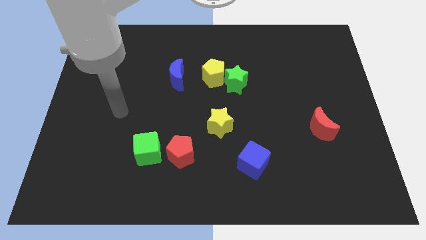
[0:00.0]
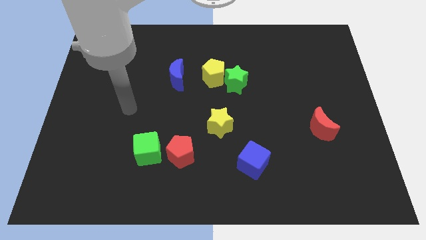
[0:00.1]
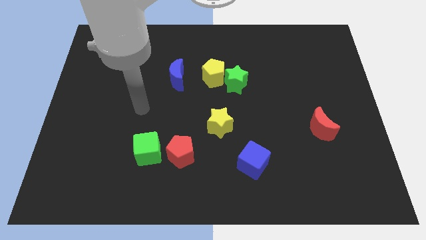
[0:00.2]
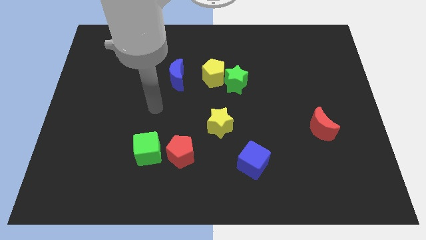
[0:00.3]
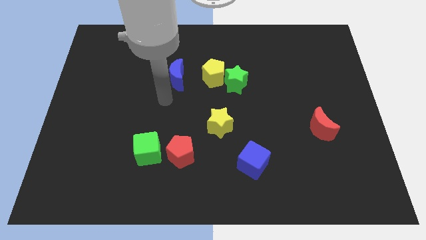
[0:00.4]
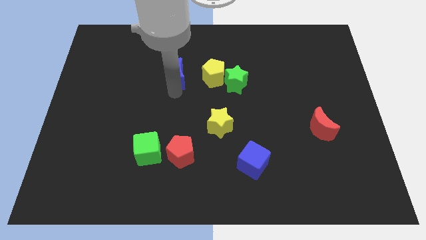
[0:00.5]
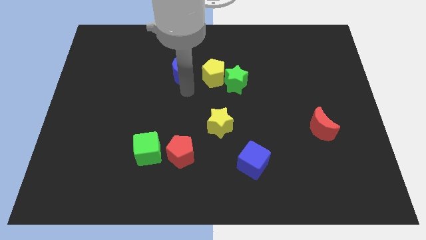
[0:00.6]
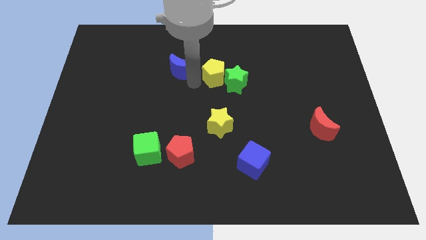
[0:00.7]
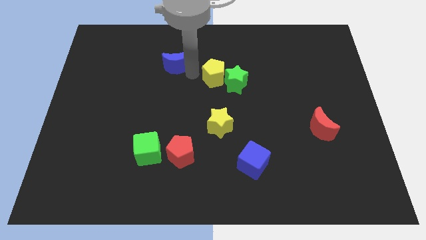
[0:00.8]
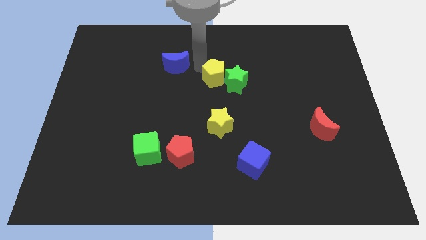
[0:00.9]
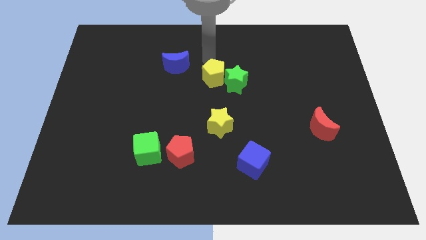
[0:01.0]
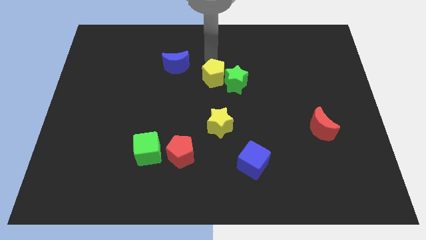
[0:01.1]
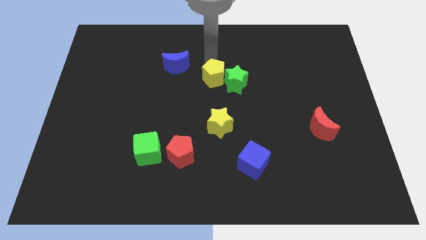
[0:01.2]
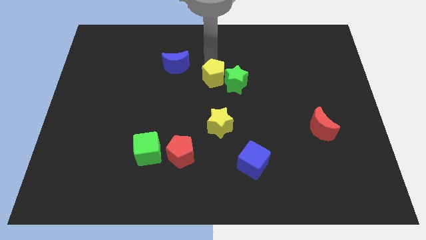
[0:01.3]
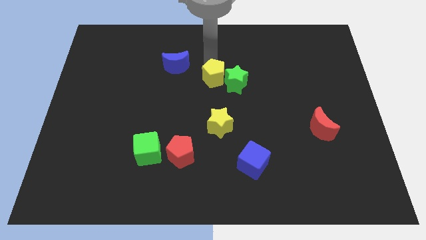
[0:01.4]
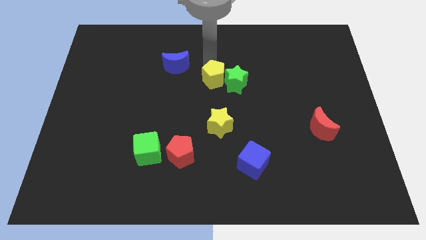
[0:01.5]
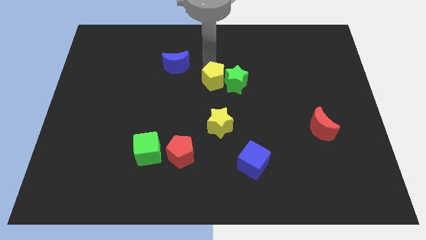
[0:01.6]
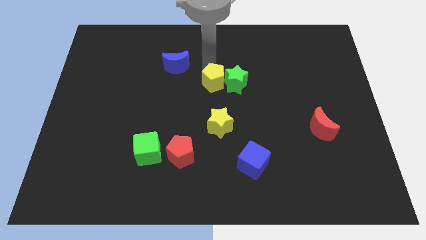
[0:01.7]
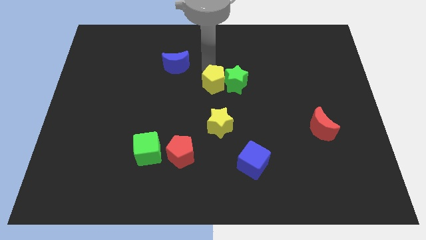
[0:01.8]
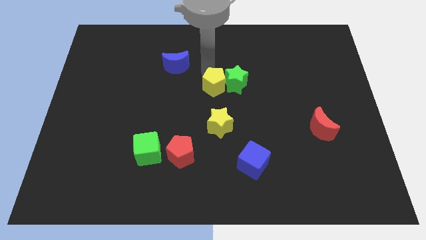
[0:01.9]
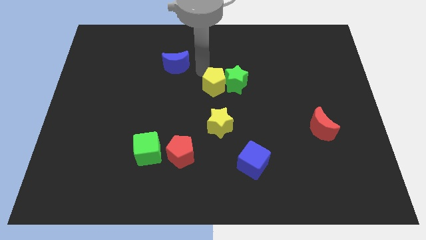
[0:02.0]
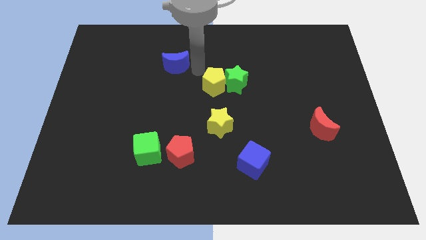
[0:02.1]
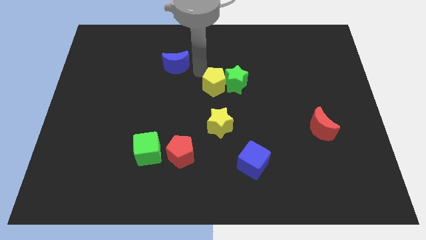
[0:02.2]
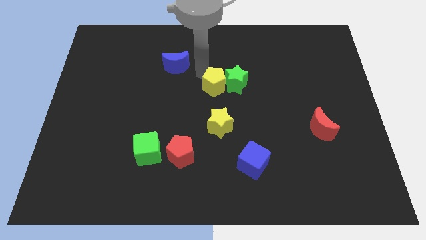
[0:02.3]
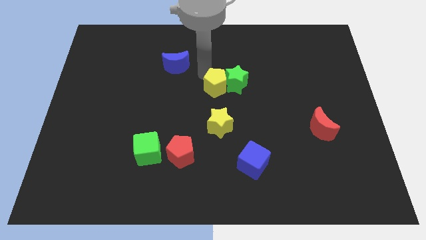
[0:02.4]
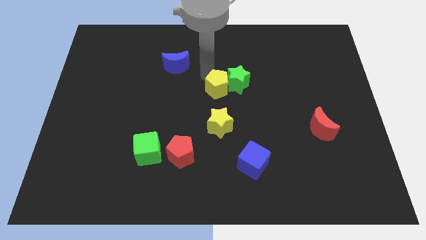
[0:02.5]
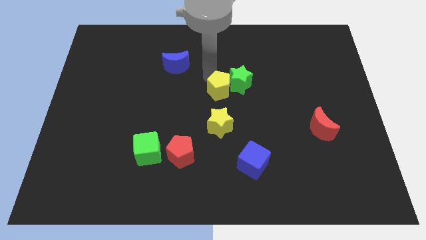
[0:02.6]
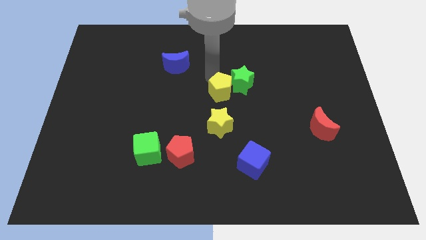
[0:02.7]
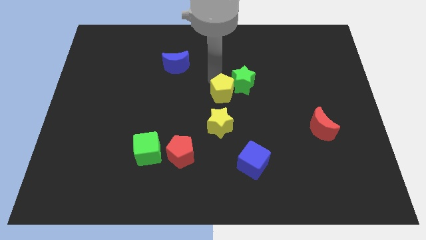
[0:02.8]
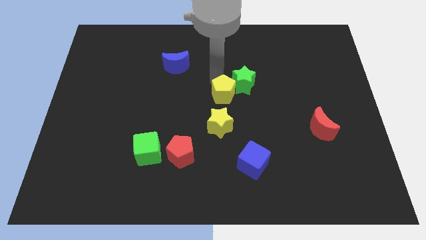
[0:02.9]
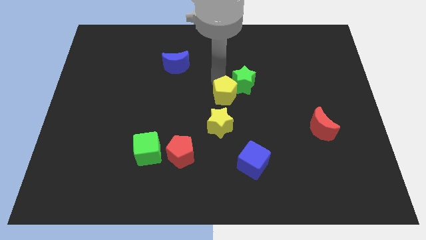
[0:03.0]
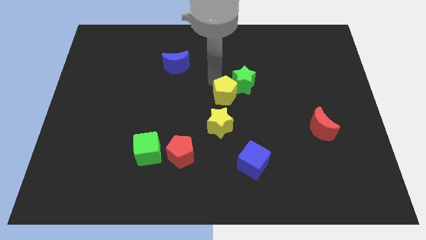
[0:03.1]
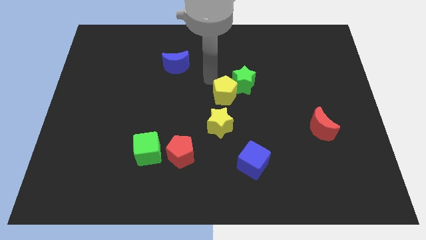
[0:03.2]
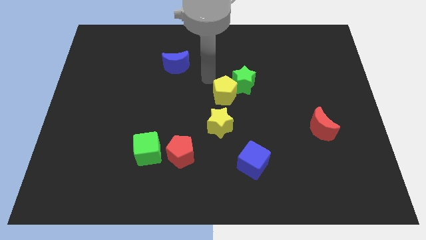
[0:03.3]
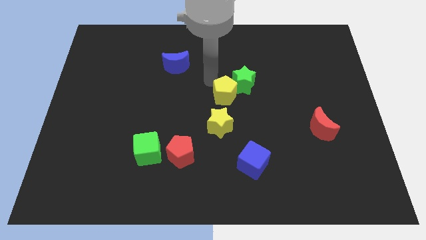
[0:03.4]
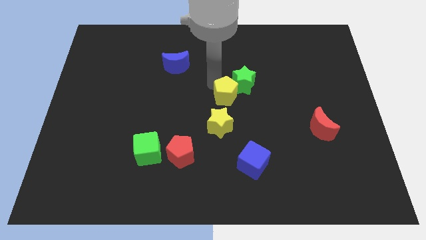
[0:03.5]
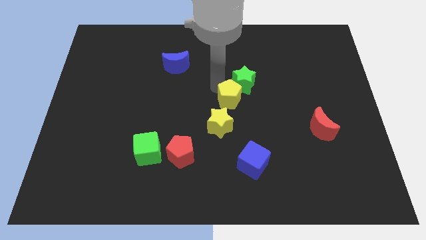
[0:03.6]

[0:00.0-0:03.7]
push the yellow pentagon downwards and right diagonally a little bit

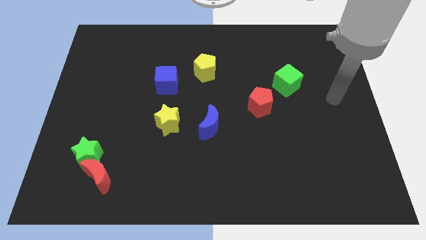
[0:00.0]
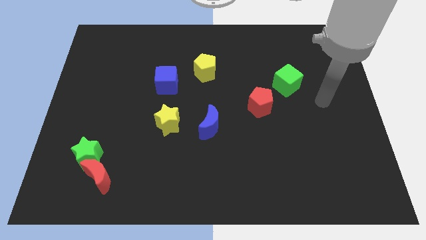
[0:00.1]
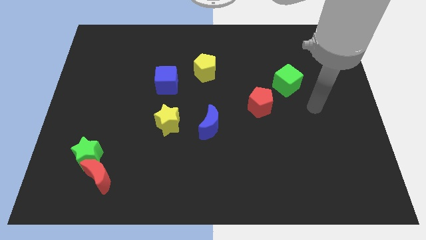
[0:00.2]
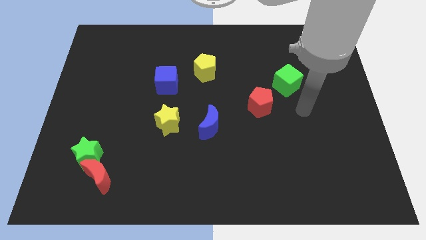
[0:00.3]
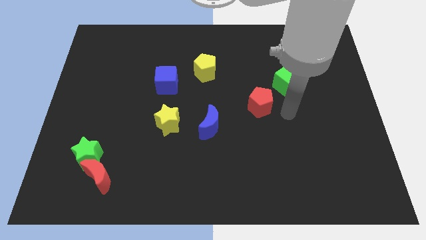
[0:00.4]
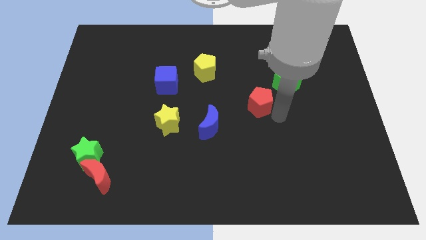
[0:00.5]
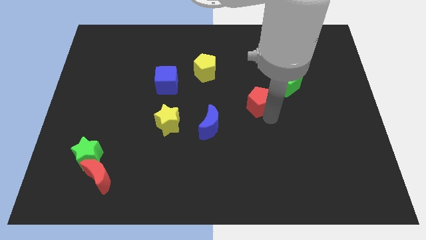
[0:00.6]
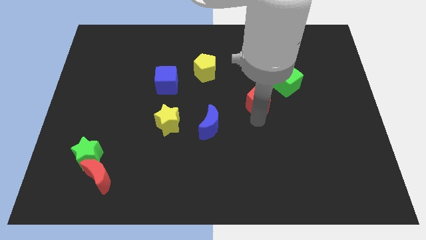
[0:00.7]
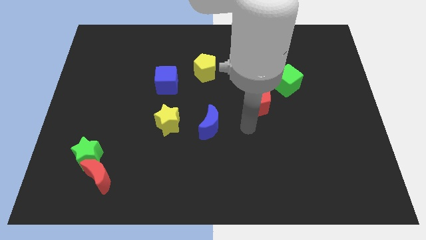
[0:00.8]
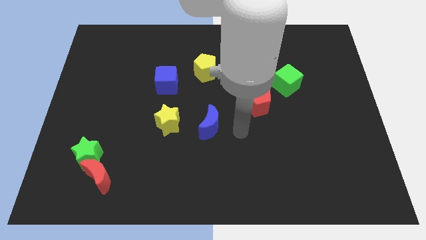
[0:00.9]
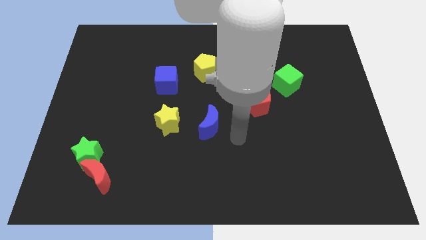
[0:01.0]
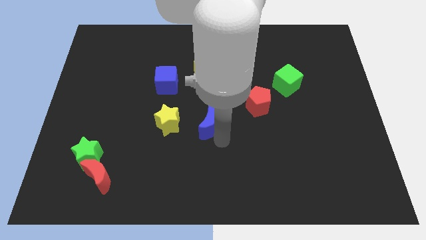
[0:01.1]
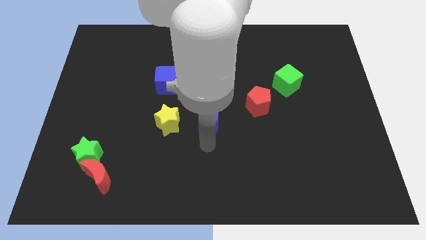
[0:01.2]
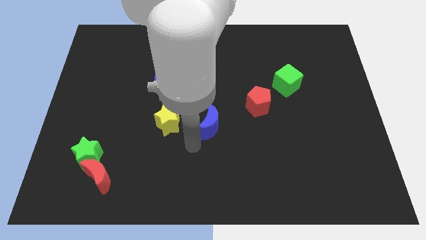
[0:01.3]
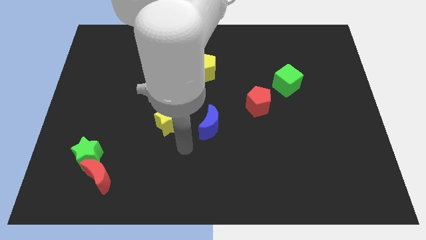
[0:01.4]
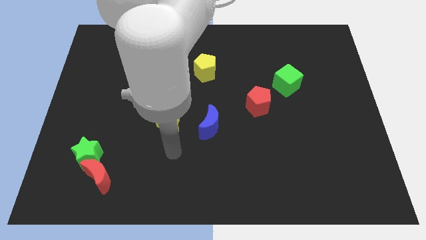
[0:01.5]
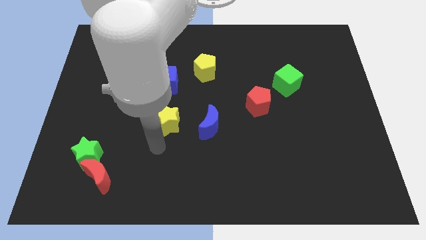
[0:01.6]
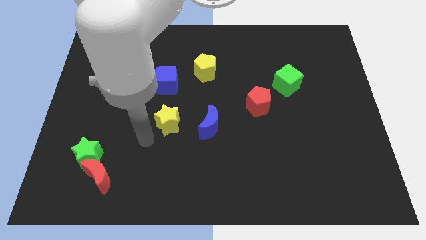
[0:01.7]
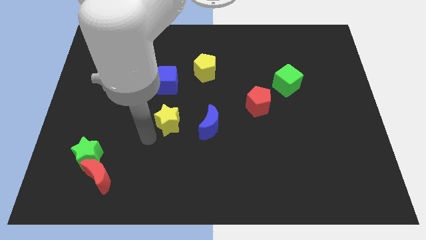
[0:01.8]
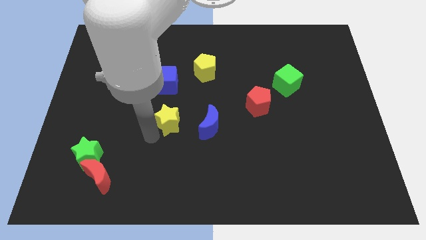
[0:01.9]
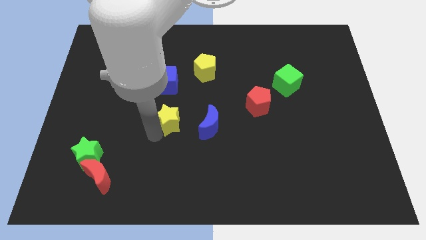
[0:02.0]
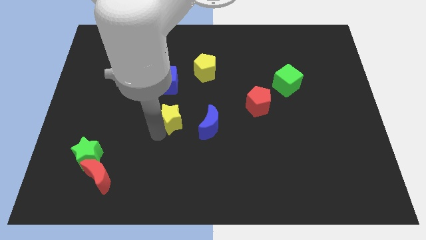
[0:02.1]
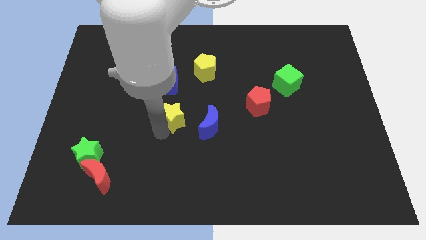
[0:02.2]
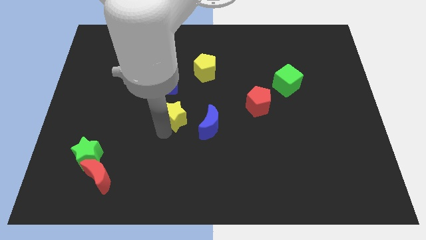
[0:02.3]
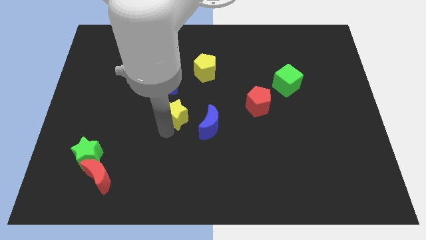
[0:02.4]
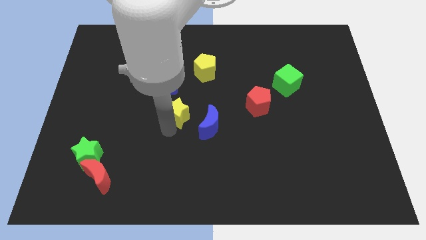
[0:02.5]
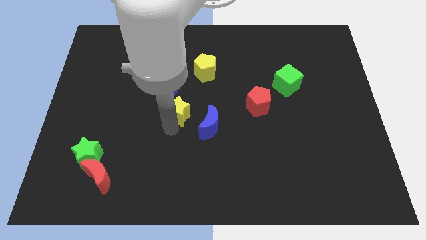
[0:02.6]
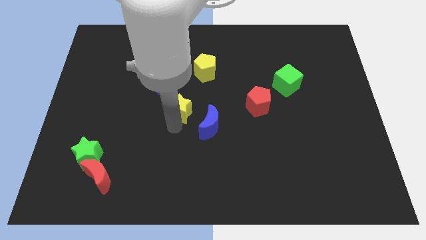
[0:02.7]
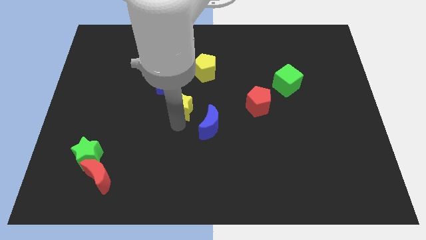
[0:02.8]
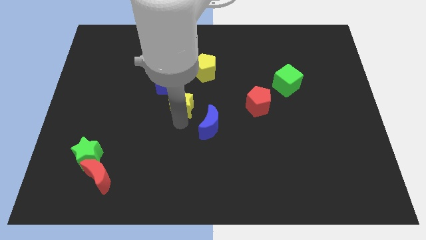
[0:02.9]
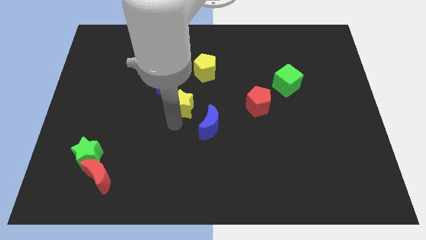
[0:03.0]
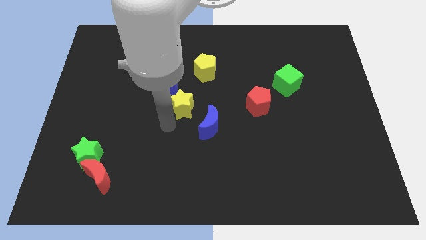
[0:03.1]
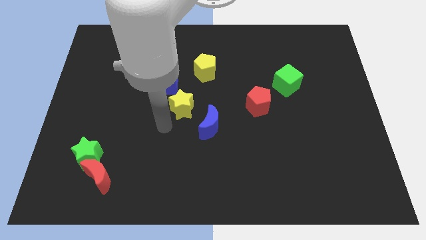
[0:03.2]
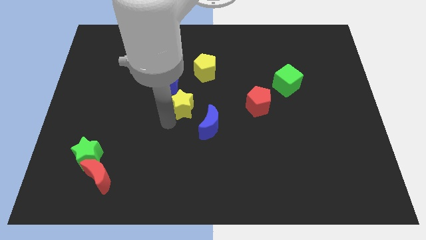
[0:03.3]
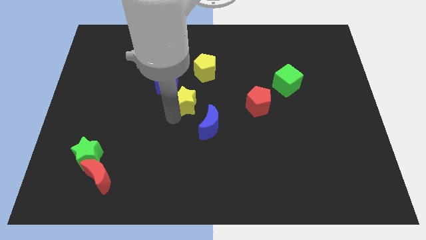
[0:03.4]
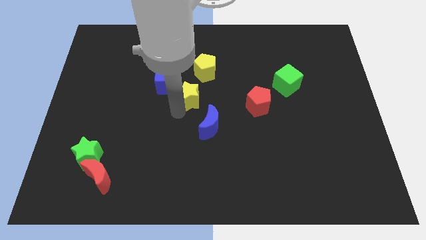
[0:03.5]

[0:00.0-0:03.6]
slide the yellow star somewhat up and then right

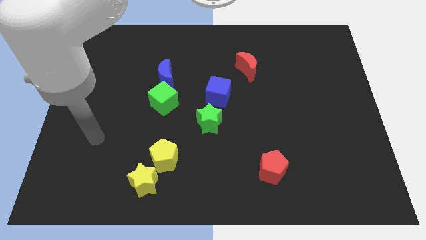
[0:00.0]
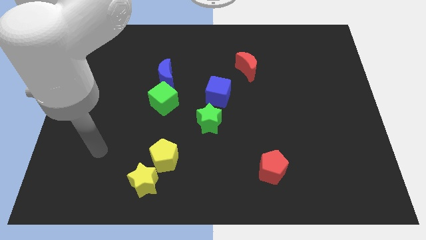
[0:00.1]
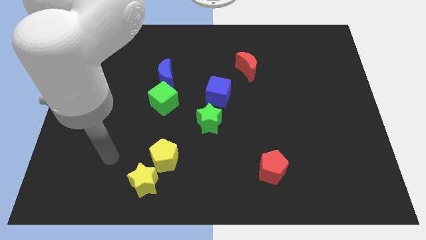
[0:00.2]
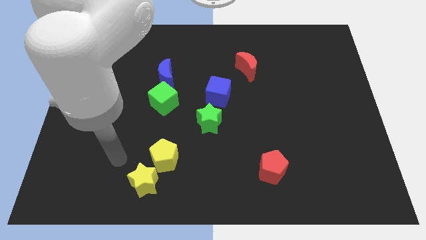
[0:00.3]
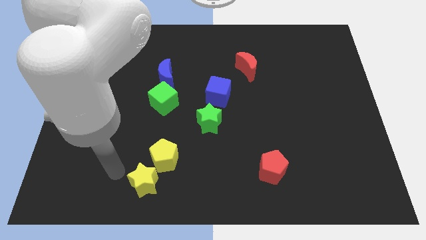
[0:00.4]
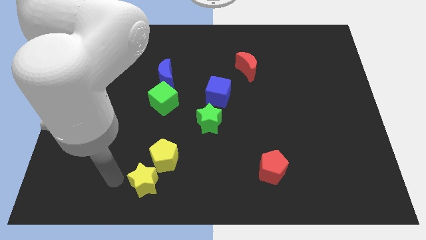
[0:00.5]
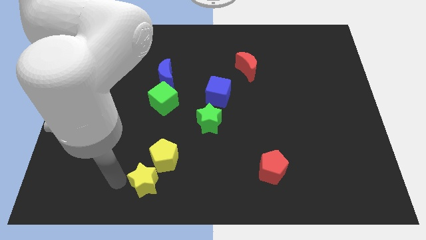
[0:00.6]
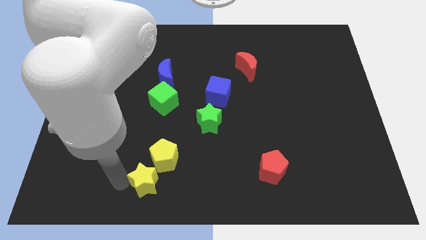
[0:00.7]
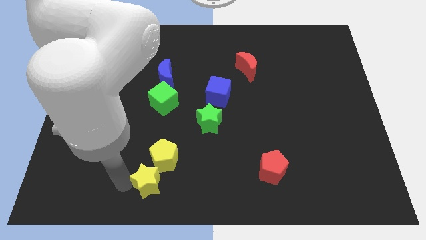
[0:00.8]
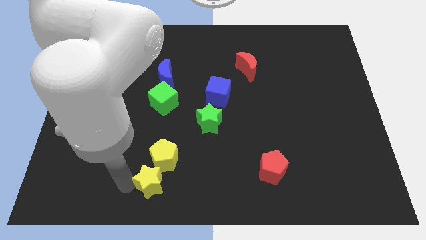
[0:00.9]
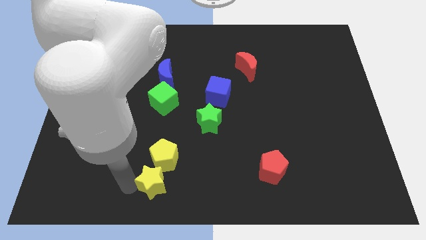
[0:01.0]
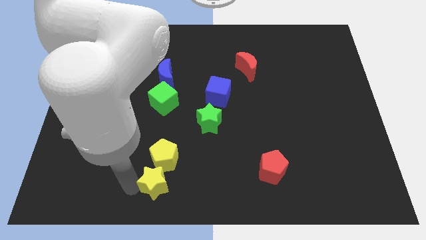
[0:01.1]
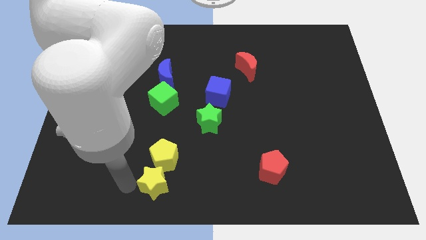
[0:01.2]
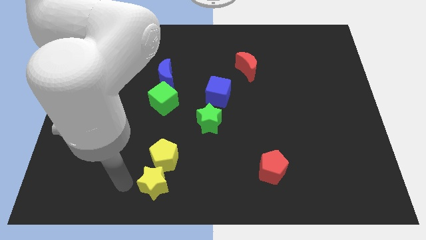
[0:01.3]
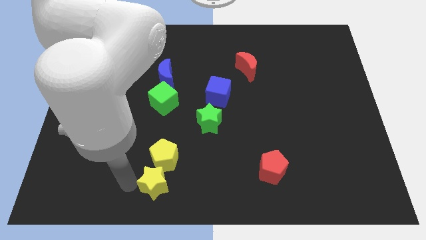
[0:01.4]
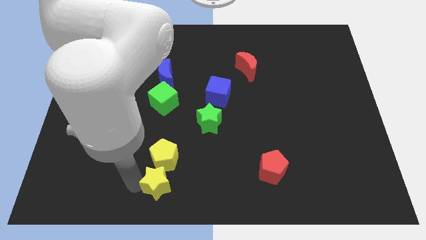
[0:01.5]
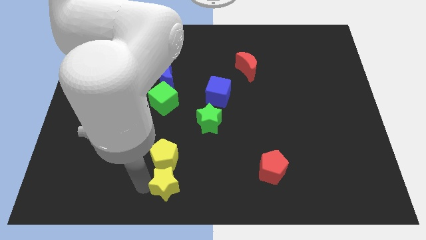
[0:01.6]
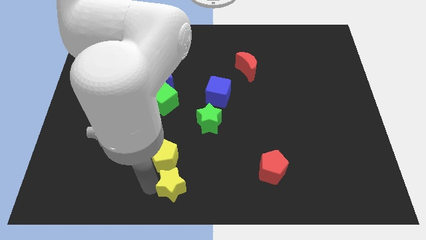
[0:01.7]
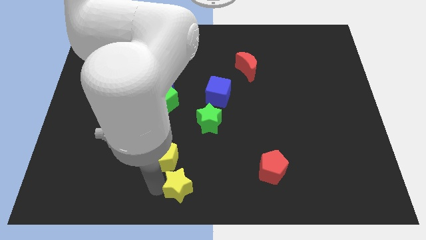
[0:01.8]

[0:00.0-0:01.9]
move the yellow star right a bit
